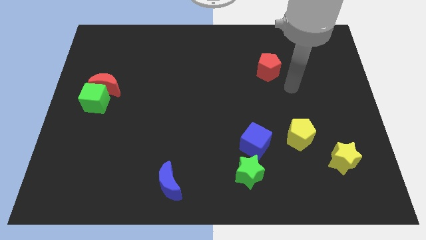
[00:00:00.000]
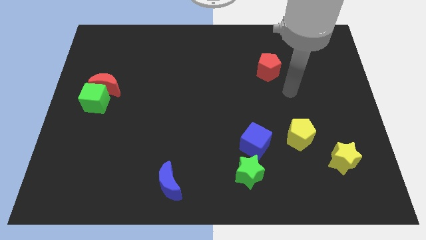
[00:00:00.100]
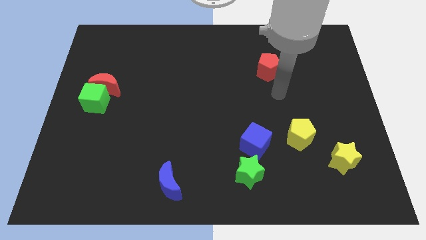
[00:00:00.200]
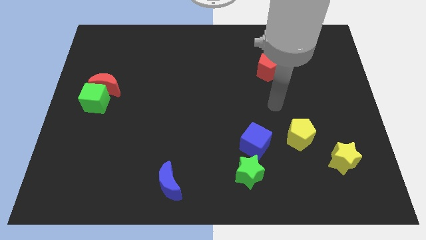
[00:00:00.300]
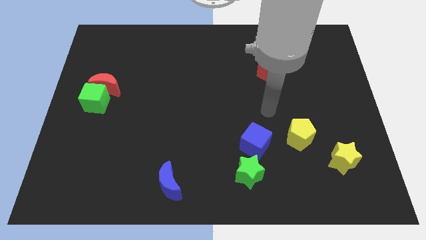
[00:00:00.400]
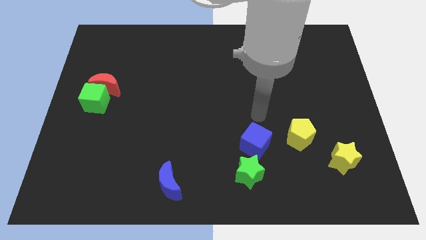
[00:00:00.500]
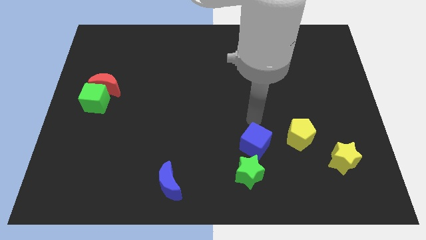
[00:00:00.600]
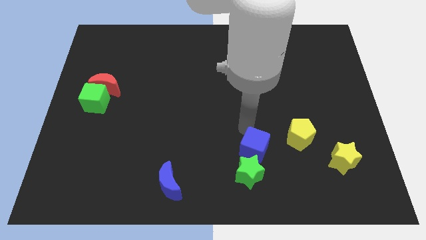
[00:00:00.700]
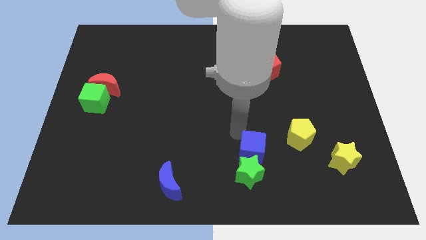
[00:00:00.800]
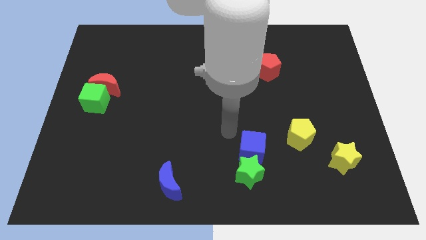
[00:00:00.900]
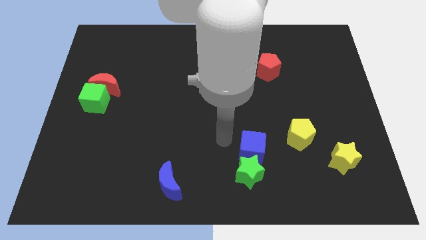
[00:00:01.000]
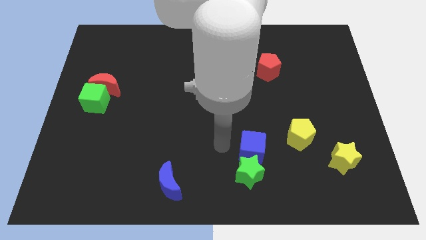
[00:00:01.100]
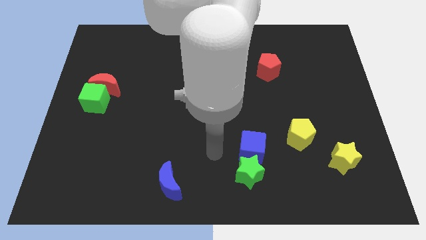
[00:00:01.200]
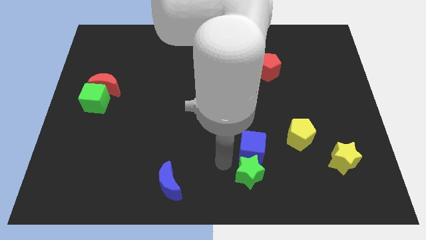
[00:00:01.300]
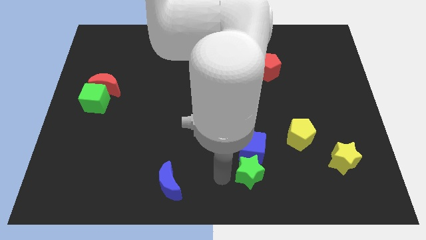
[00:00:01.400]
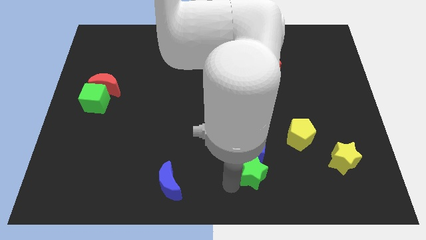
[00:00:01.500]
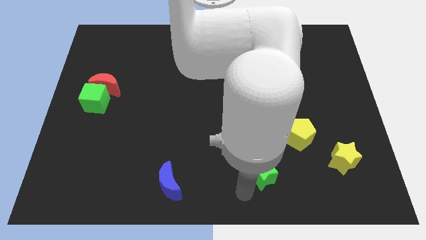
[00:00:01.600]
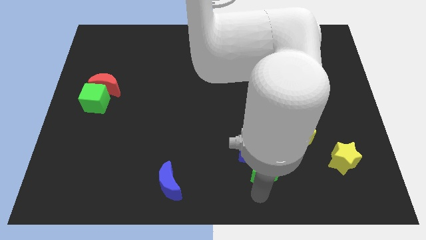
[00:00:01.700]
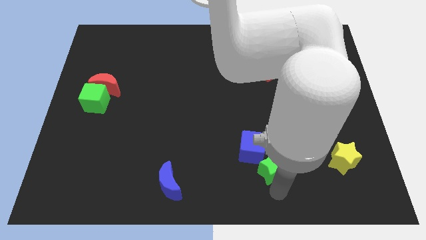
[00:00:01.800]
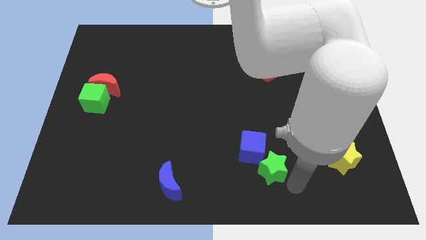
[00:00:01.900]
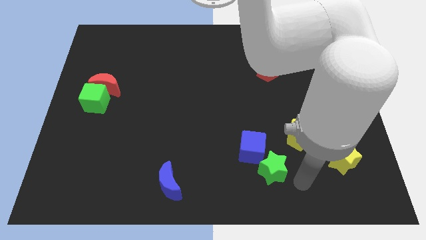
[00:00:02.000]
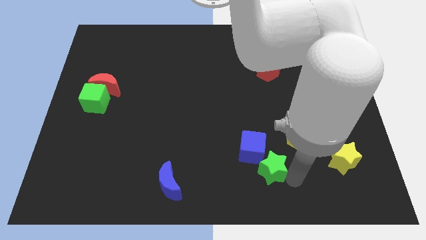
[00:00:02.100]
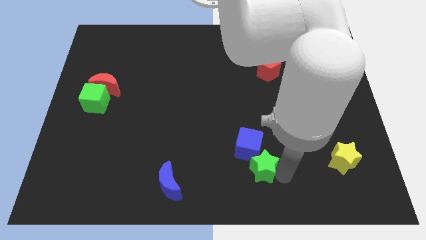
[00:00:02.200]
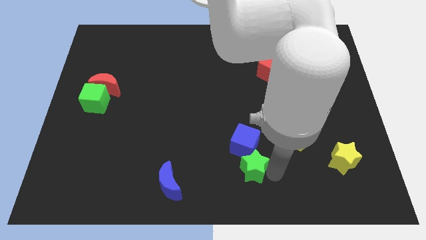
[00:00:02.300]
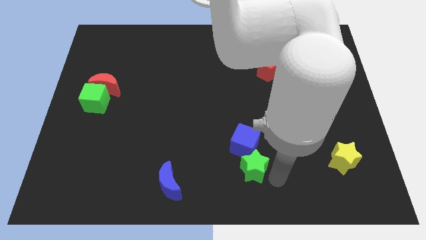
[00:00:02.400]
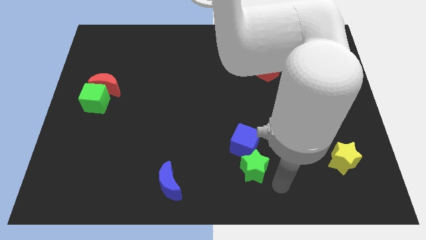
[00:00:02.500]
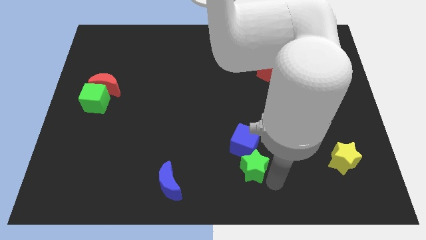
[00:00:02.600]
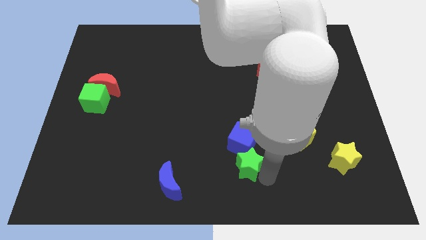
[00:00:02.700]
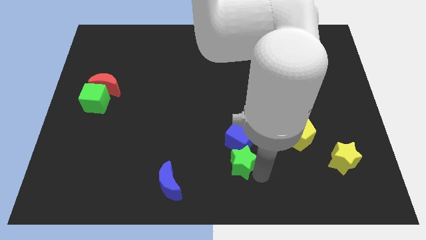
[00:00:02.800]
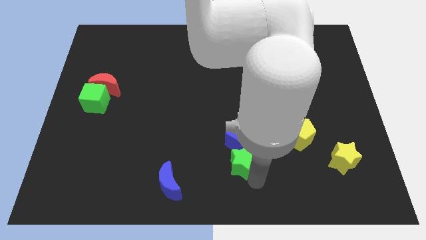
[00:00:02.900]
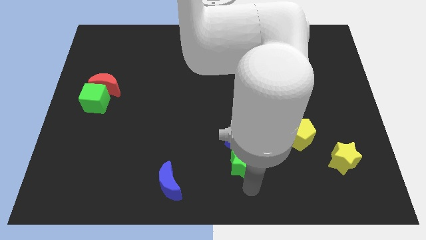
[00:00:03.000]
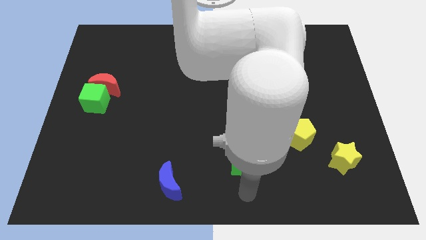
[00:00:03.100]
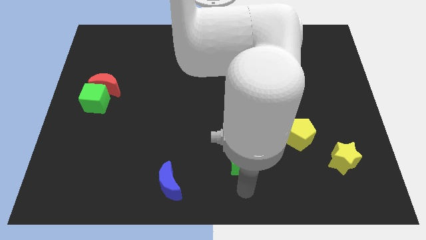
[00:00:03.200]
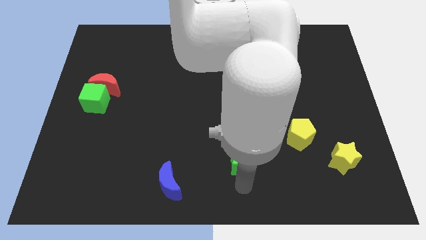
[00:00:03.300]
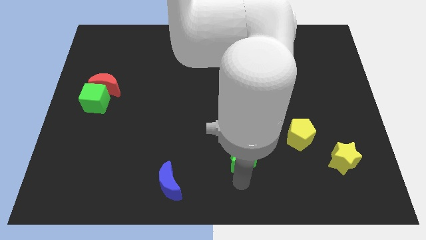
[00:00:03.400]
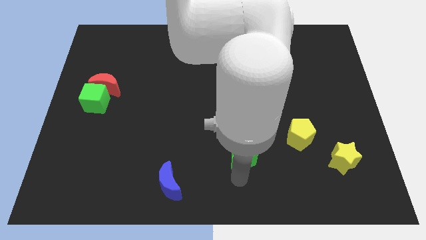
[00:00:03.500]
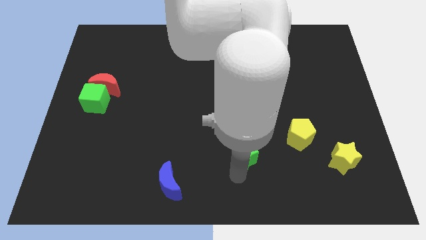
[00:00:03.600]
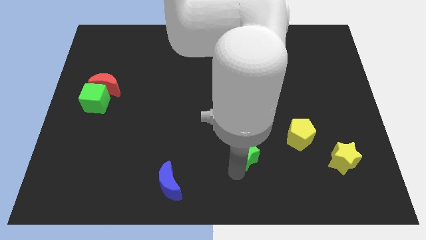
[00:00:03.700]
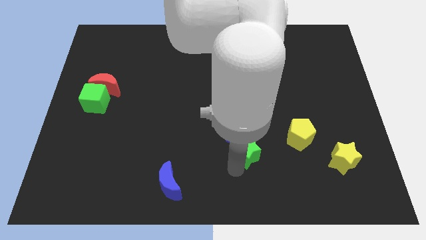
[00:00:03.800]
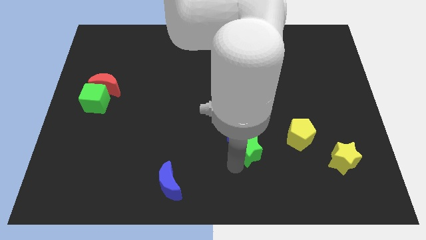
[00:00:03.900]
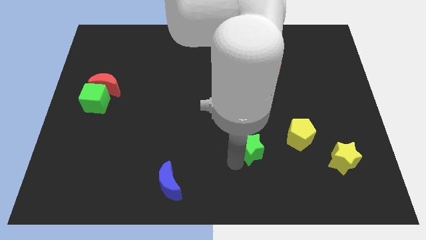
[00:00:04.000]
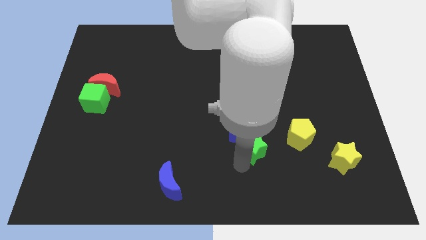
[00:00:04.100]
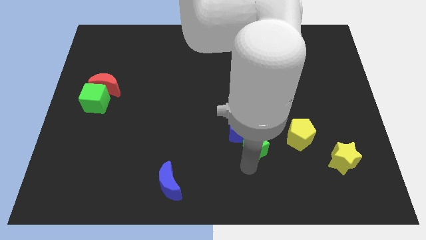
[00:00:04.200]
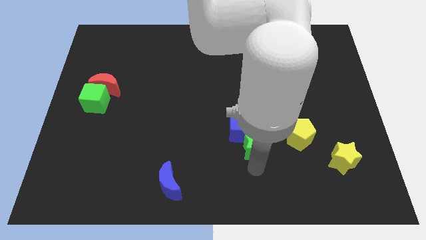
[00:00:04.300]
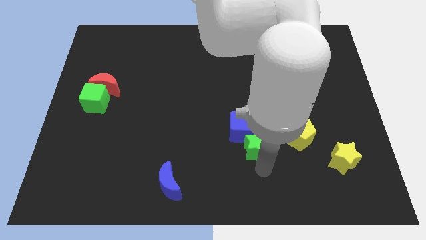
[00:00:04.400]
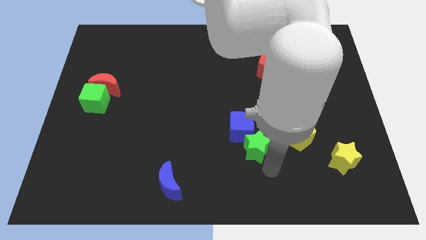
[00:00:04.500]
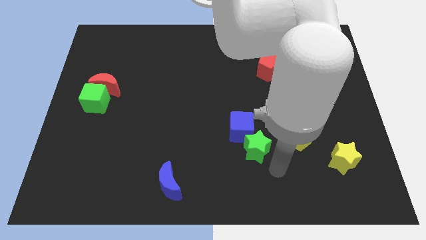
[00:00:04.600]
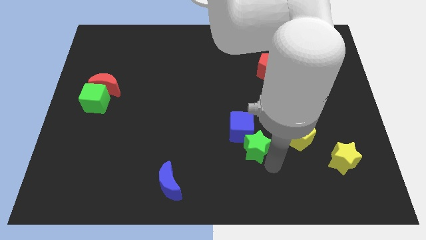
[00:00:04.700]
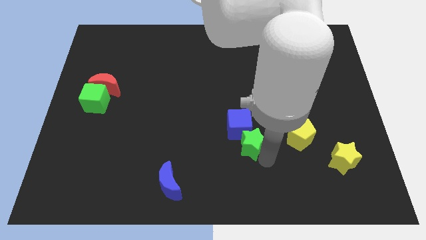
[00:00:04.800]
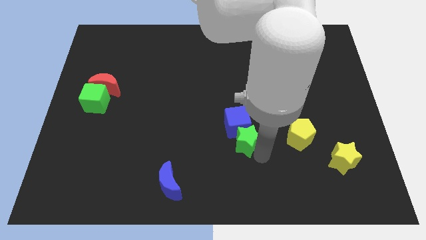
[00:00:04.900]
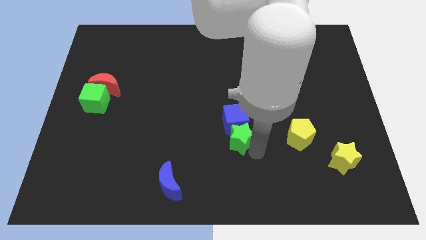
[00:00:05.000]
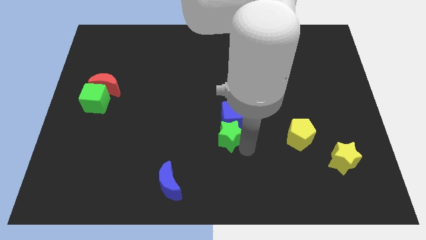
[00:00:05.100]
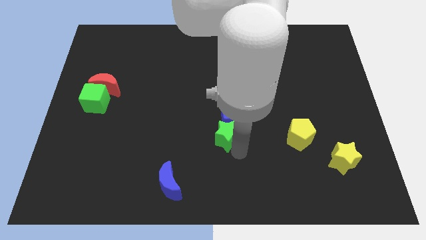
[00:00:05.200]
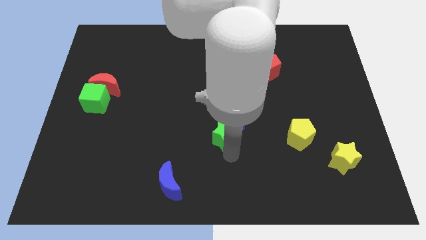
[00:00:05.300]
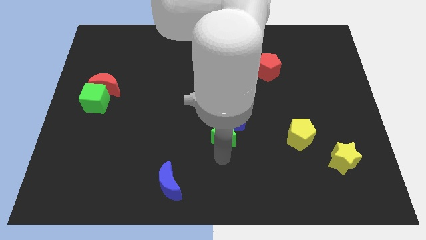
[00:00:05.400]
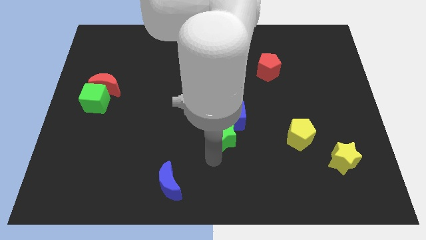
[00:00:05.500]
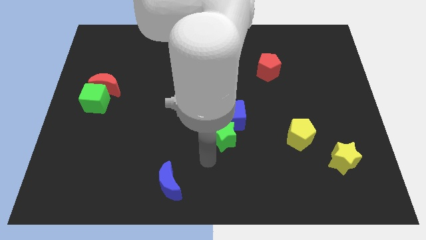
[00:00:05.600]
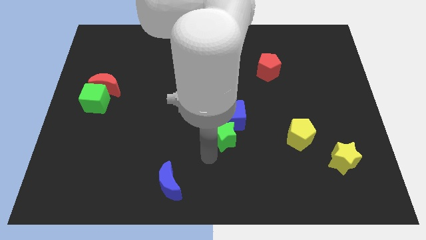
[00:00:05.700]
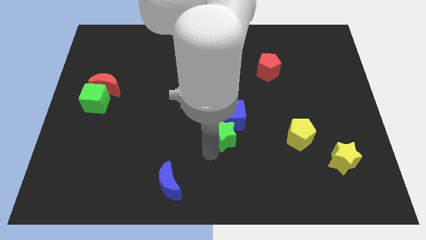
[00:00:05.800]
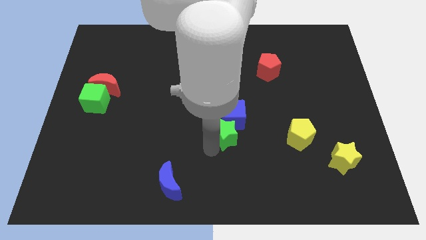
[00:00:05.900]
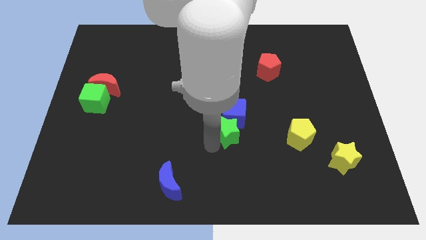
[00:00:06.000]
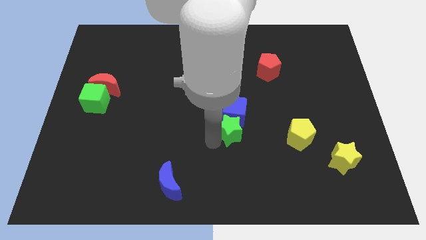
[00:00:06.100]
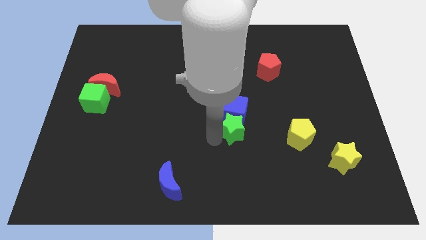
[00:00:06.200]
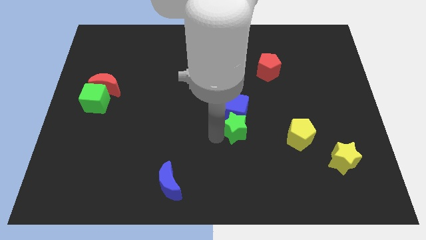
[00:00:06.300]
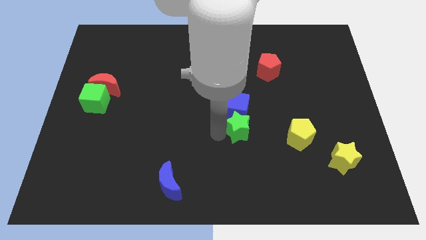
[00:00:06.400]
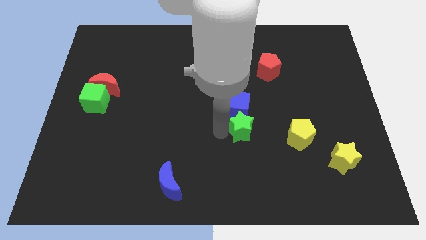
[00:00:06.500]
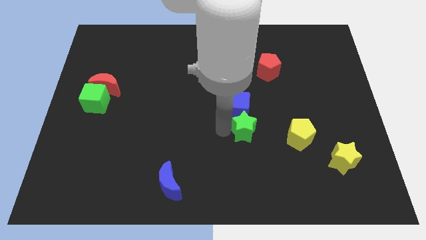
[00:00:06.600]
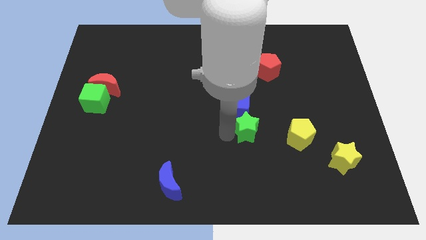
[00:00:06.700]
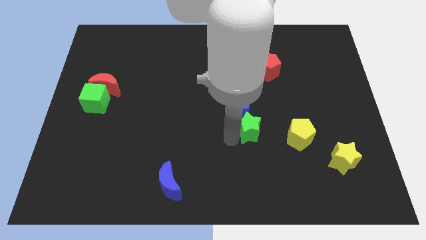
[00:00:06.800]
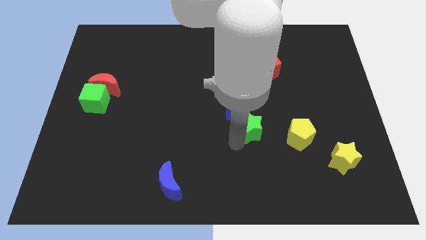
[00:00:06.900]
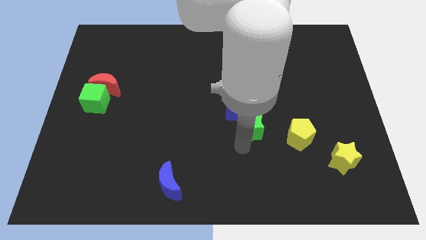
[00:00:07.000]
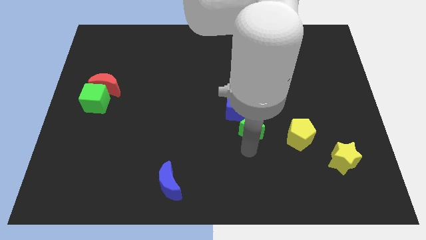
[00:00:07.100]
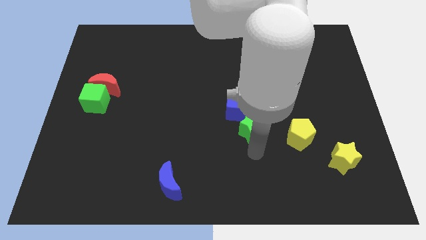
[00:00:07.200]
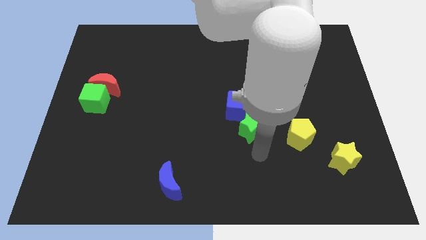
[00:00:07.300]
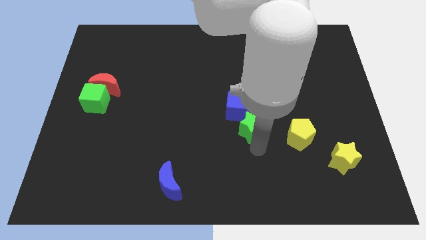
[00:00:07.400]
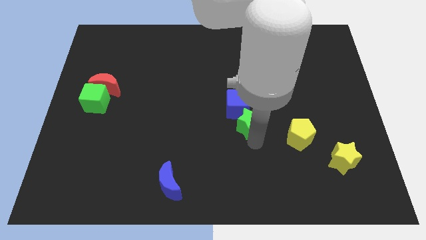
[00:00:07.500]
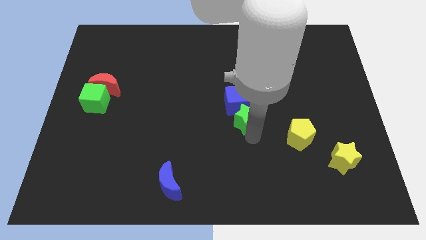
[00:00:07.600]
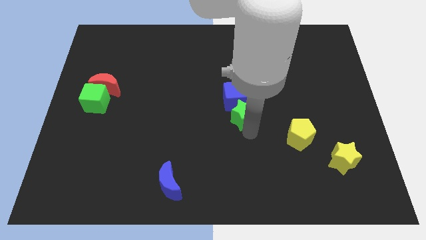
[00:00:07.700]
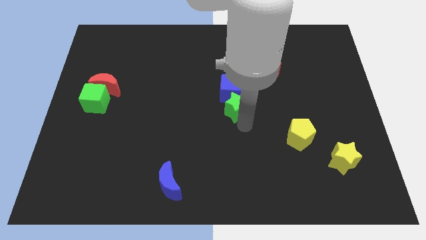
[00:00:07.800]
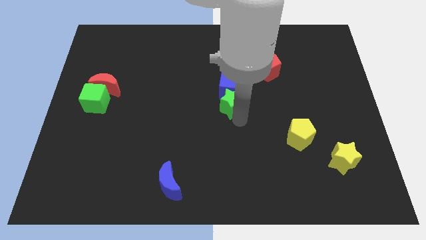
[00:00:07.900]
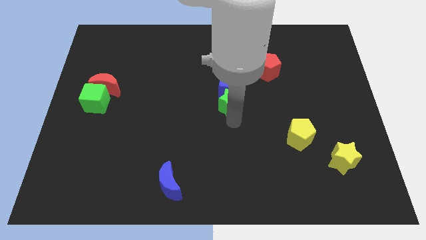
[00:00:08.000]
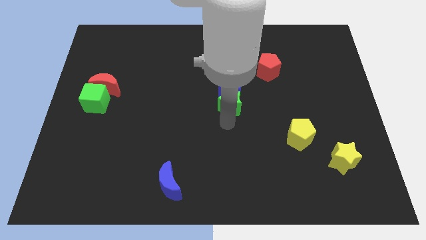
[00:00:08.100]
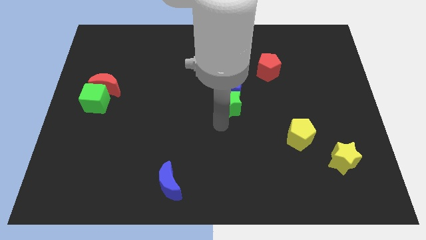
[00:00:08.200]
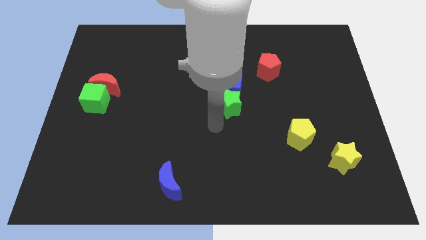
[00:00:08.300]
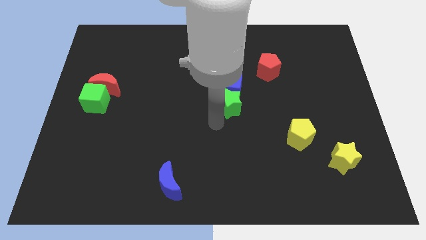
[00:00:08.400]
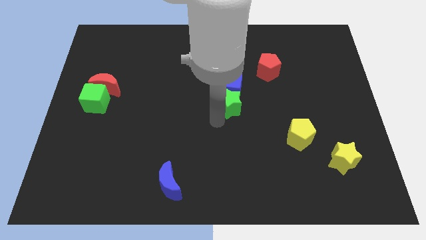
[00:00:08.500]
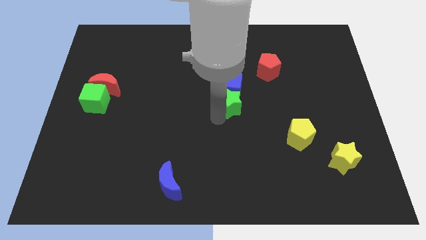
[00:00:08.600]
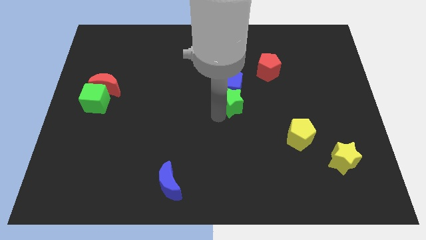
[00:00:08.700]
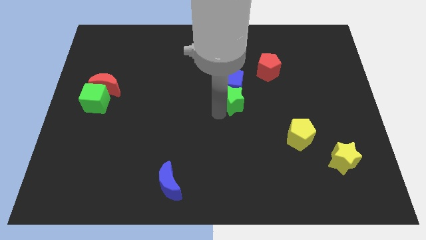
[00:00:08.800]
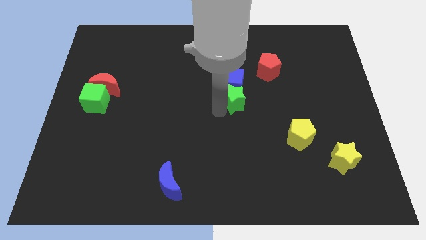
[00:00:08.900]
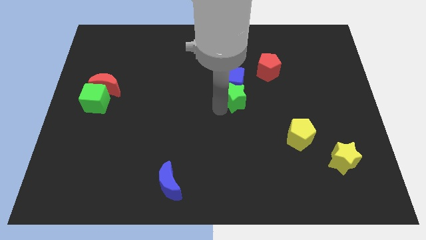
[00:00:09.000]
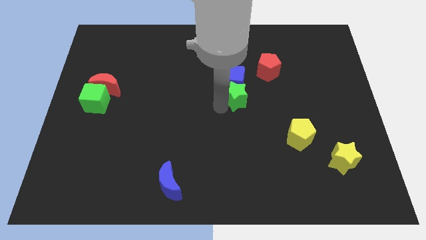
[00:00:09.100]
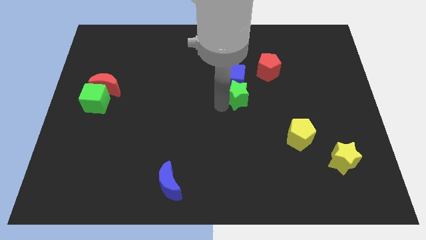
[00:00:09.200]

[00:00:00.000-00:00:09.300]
move the green star upwards
